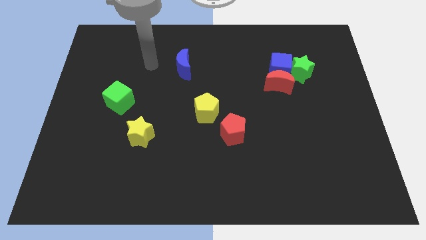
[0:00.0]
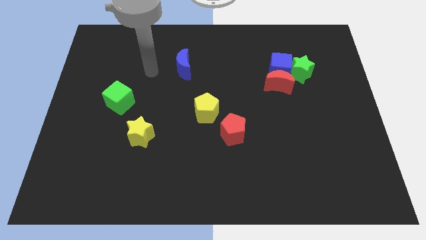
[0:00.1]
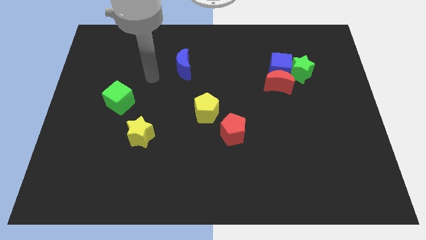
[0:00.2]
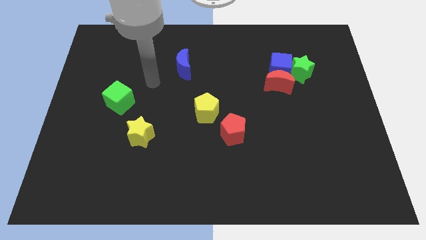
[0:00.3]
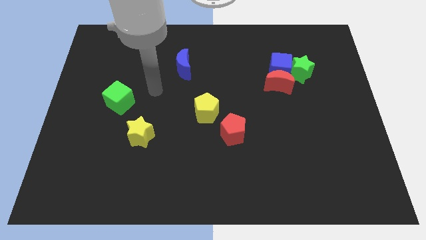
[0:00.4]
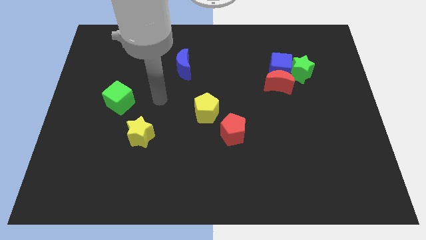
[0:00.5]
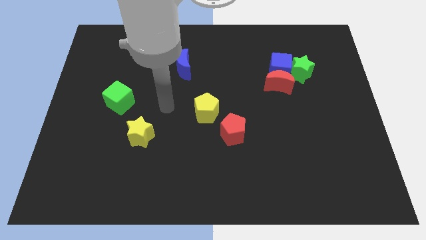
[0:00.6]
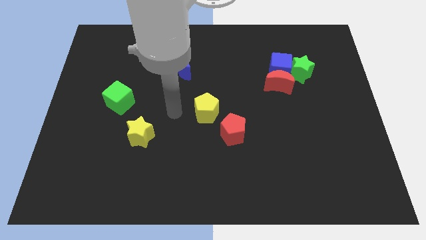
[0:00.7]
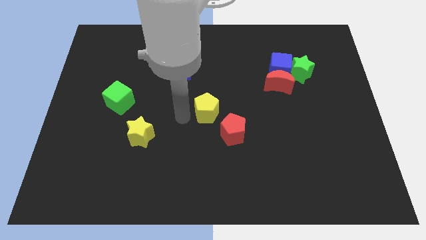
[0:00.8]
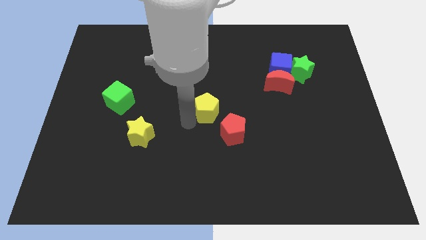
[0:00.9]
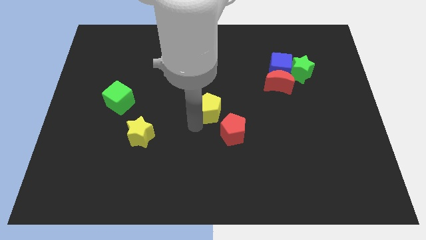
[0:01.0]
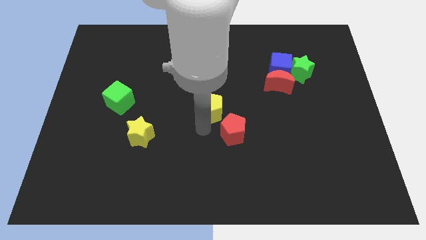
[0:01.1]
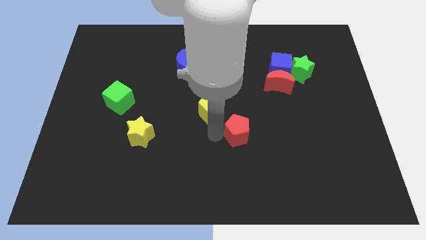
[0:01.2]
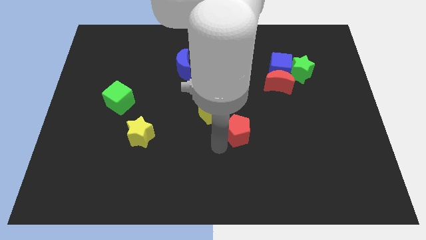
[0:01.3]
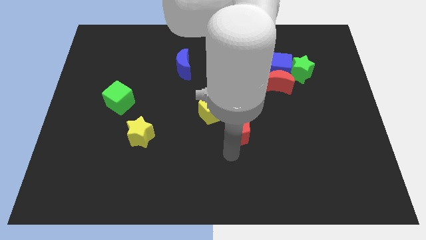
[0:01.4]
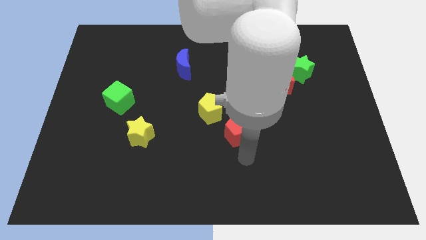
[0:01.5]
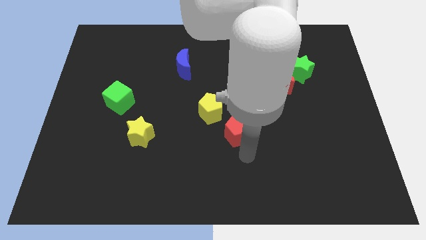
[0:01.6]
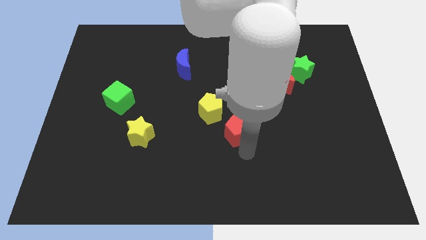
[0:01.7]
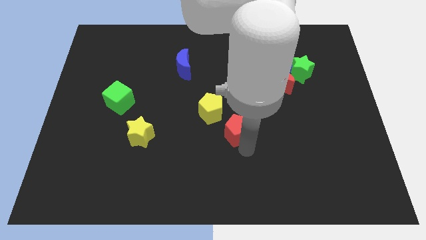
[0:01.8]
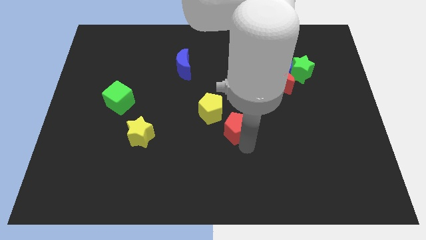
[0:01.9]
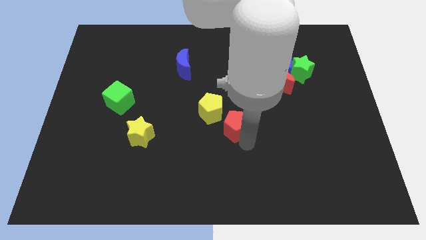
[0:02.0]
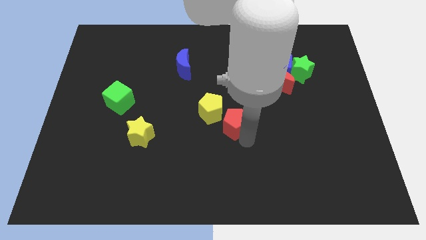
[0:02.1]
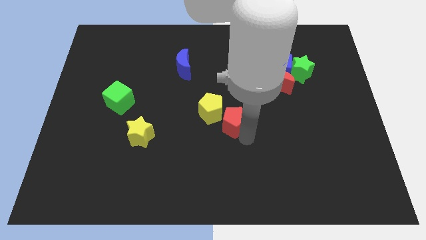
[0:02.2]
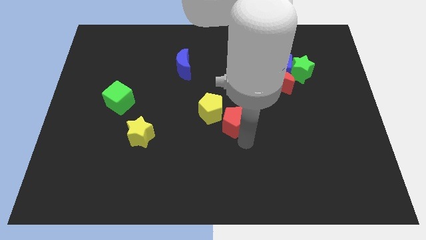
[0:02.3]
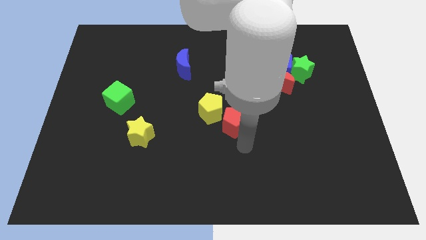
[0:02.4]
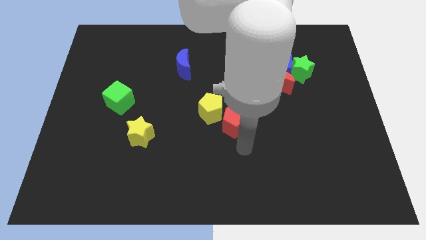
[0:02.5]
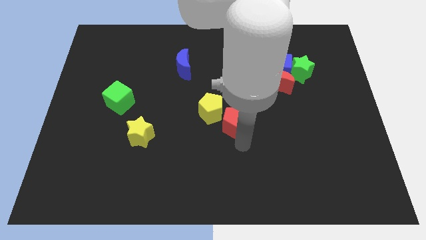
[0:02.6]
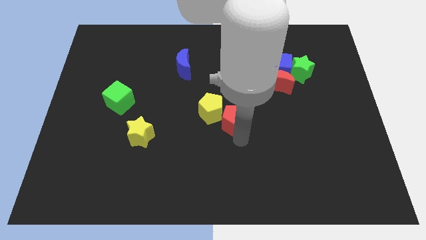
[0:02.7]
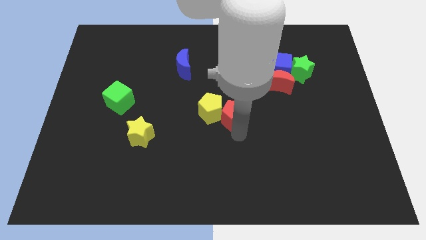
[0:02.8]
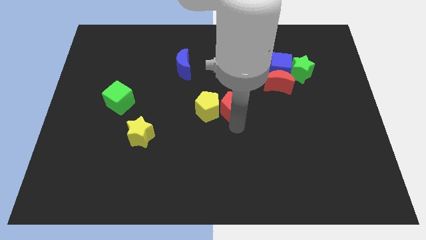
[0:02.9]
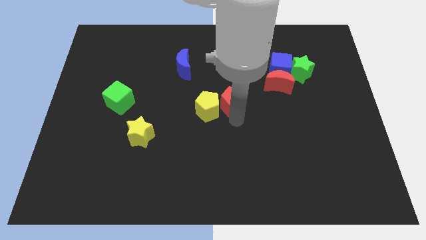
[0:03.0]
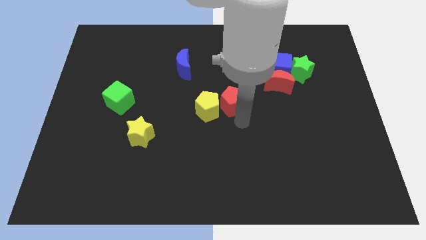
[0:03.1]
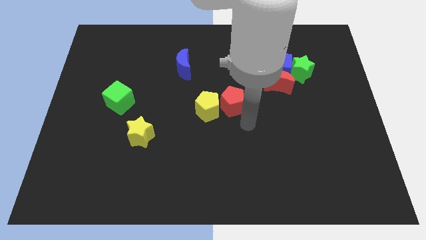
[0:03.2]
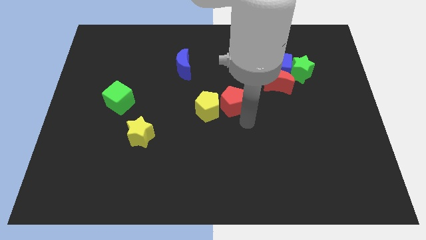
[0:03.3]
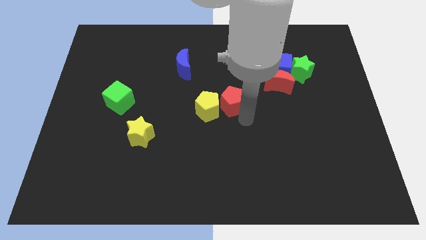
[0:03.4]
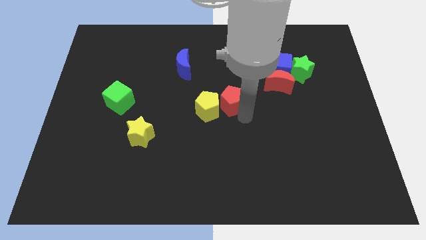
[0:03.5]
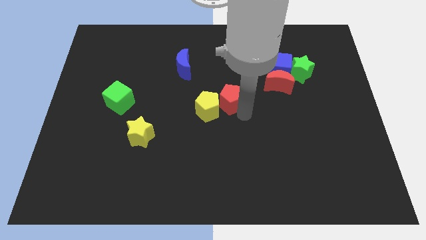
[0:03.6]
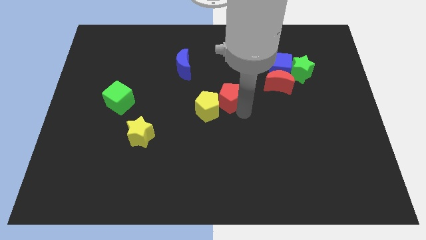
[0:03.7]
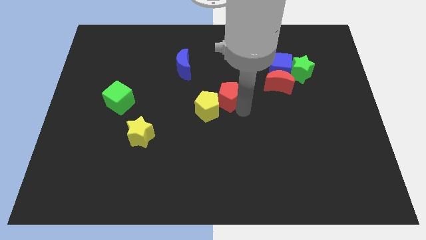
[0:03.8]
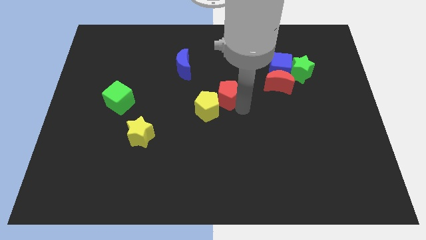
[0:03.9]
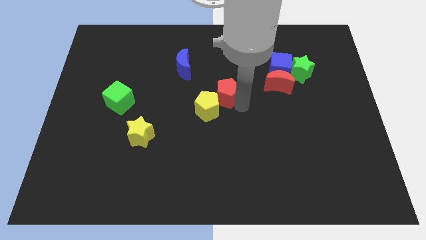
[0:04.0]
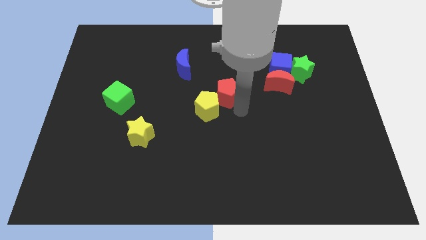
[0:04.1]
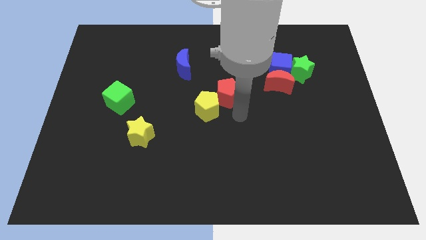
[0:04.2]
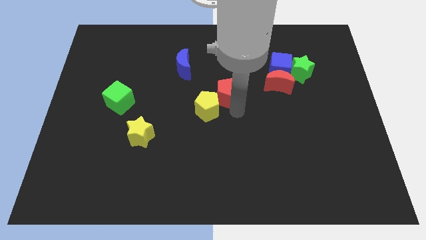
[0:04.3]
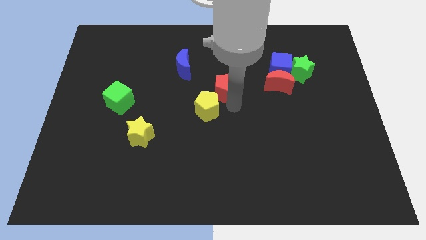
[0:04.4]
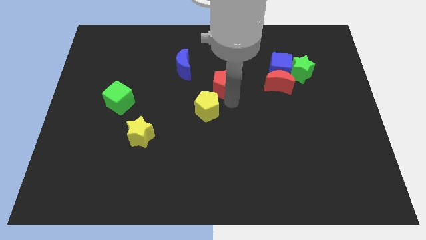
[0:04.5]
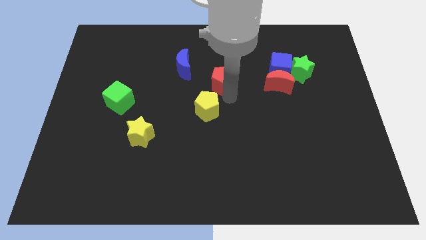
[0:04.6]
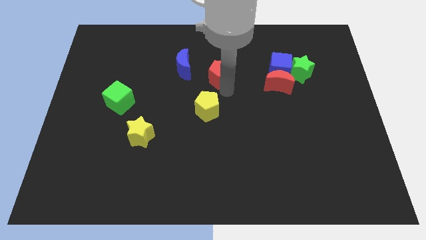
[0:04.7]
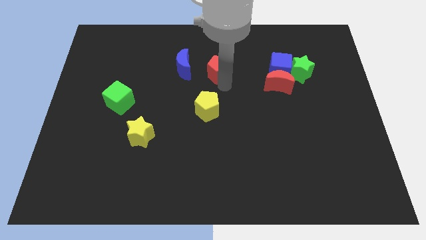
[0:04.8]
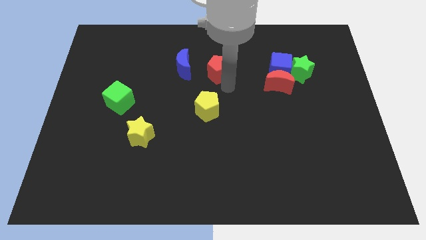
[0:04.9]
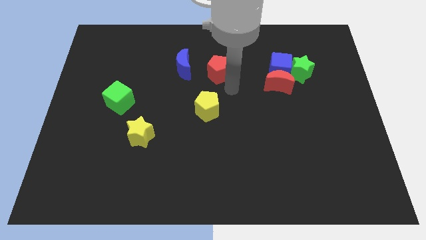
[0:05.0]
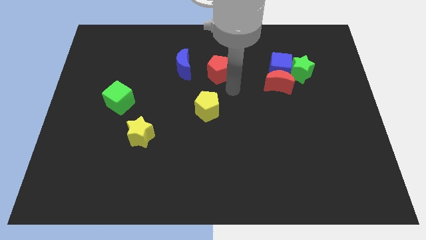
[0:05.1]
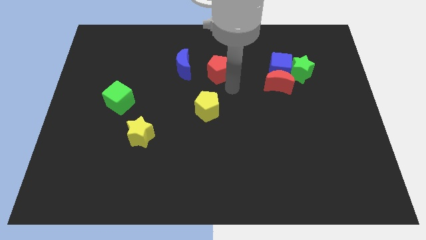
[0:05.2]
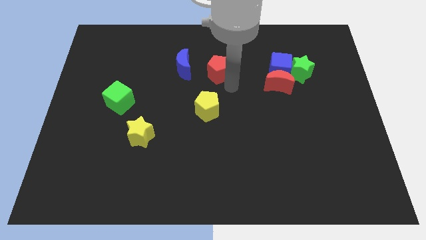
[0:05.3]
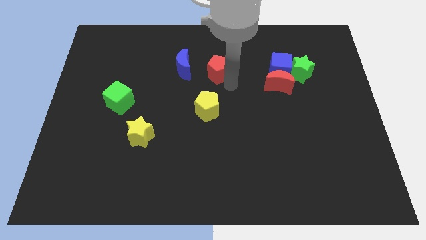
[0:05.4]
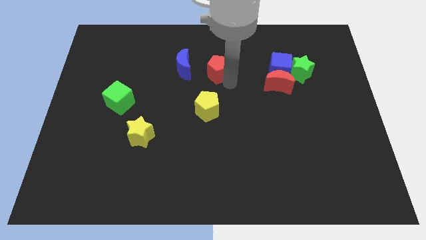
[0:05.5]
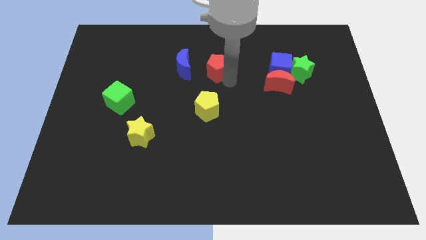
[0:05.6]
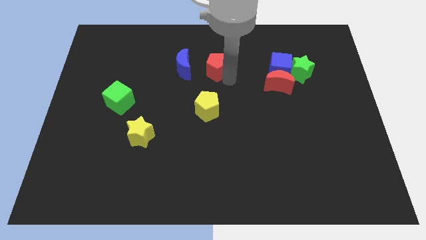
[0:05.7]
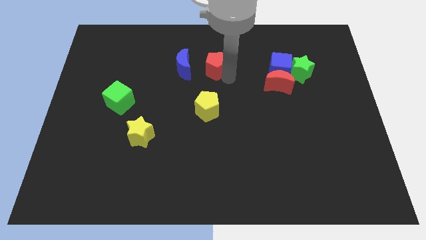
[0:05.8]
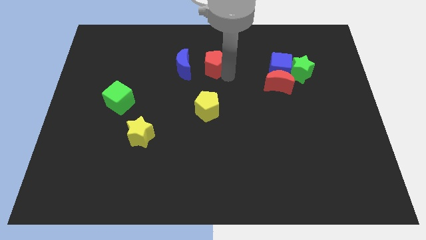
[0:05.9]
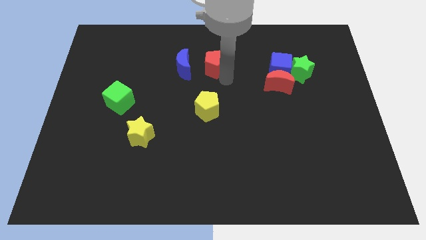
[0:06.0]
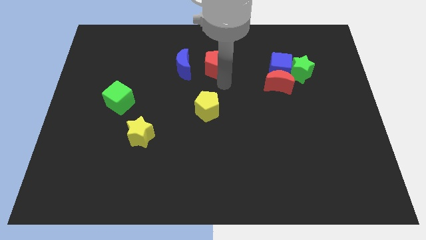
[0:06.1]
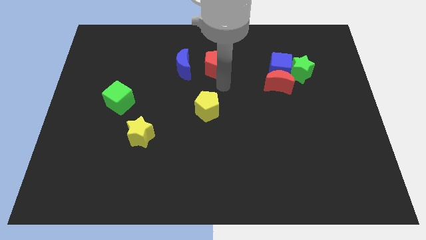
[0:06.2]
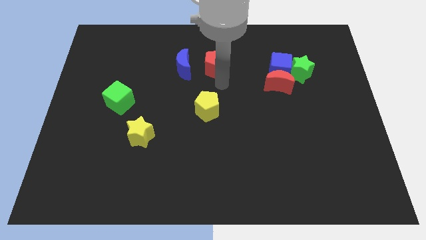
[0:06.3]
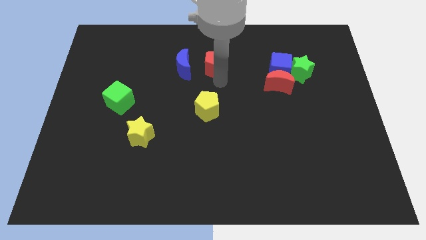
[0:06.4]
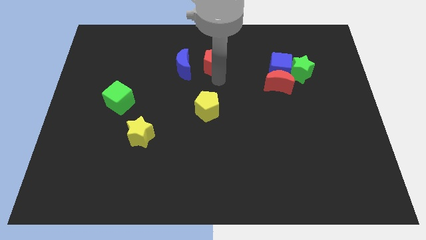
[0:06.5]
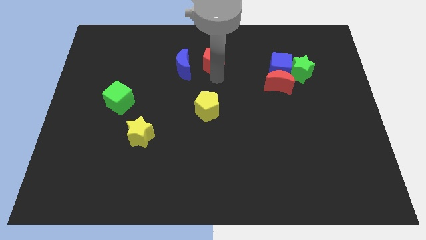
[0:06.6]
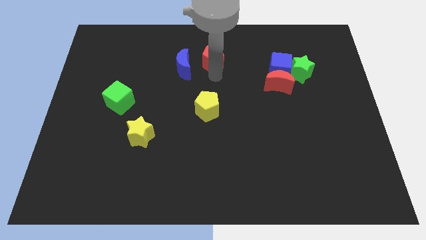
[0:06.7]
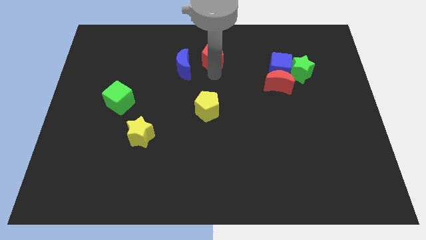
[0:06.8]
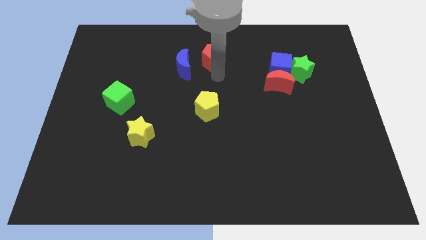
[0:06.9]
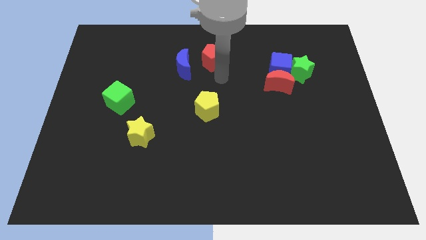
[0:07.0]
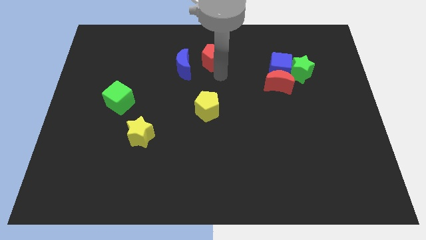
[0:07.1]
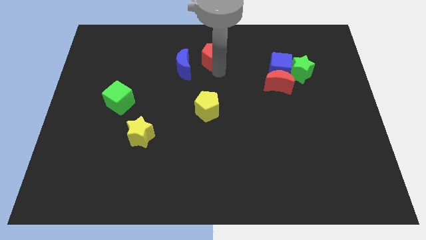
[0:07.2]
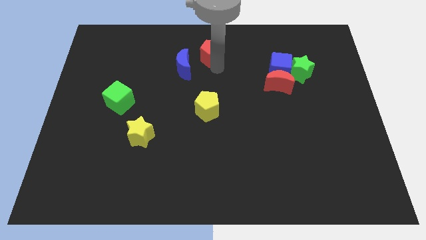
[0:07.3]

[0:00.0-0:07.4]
push the red pentagon to the top
